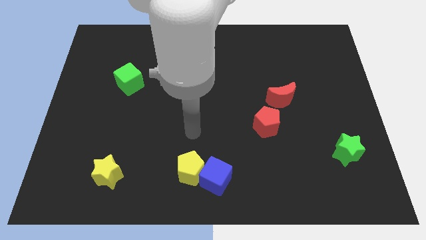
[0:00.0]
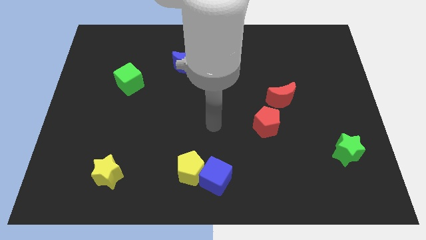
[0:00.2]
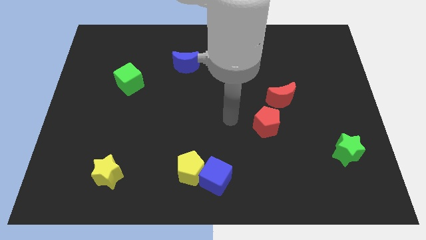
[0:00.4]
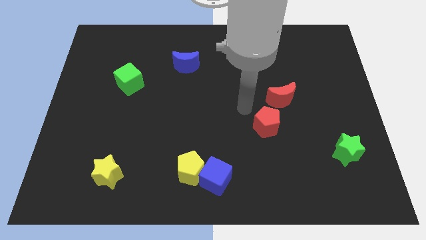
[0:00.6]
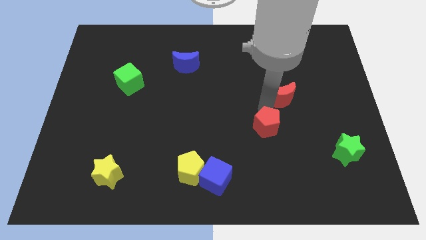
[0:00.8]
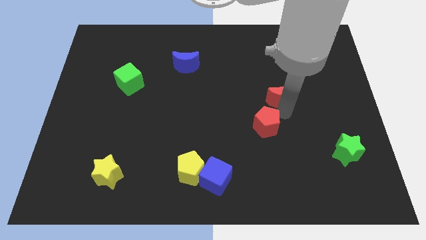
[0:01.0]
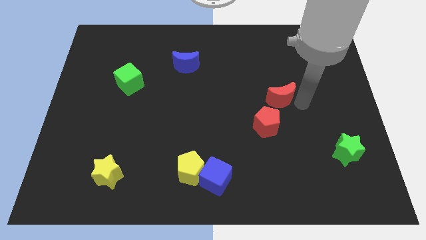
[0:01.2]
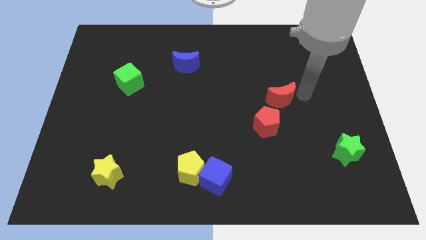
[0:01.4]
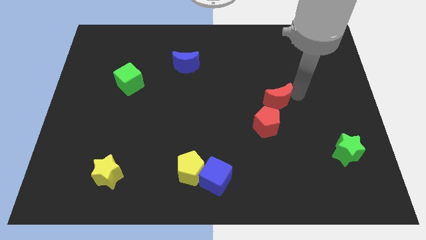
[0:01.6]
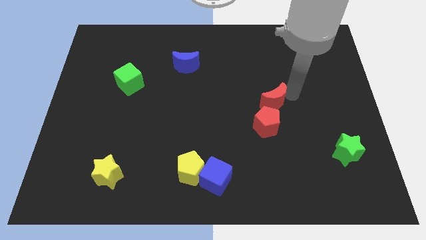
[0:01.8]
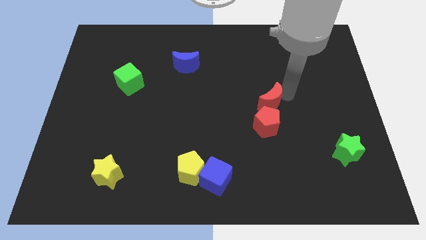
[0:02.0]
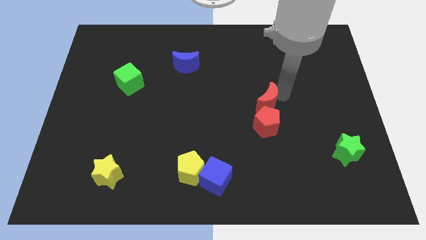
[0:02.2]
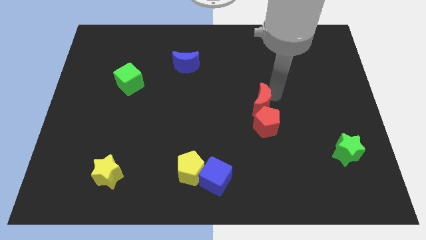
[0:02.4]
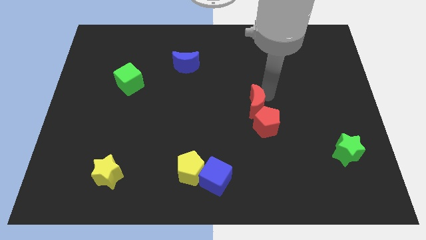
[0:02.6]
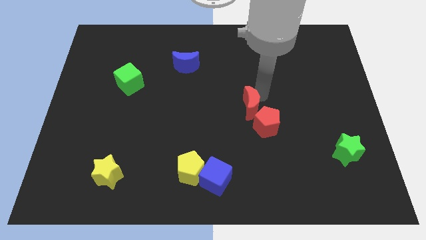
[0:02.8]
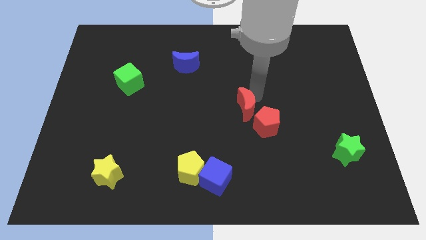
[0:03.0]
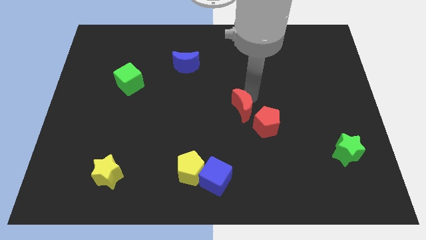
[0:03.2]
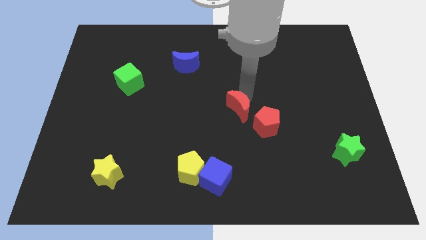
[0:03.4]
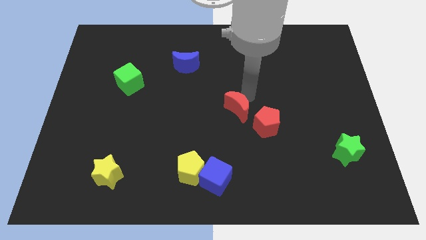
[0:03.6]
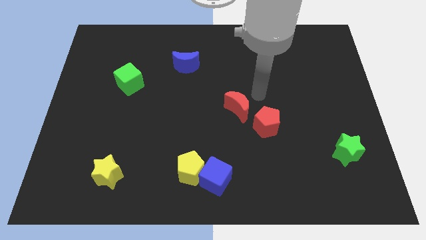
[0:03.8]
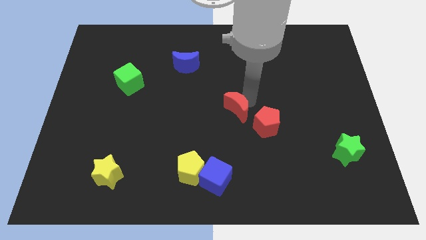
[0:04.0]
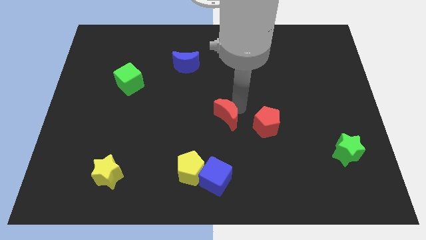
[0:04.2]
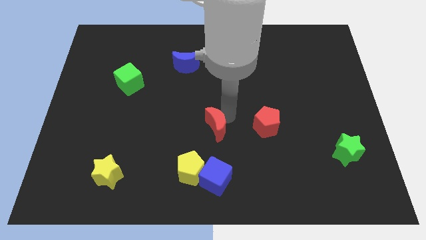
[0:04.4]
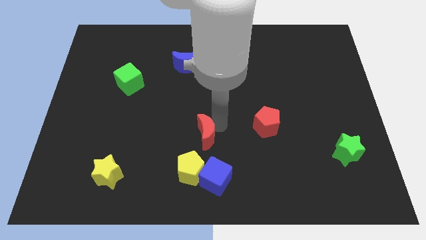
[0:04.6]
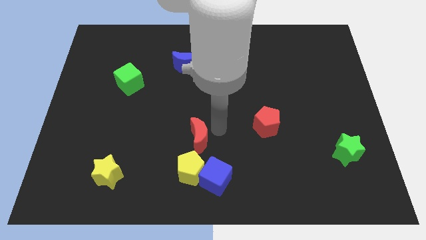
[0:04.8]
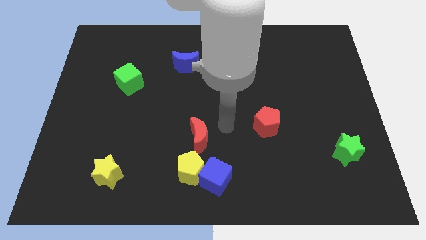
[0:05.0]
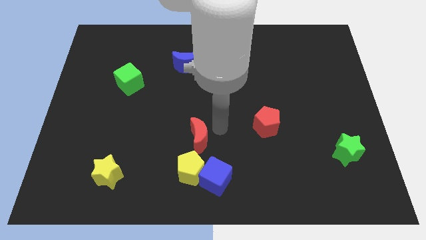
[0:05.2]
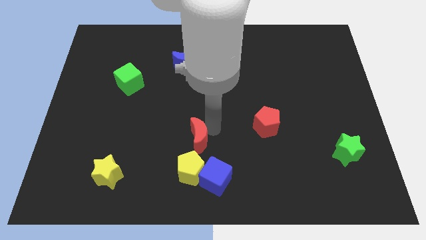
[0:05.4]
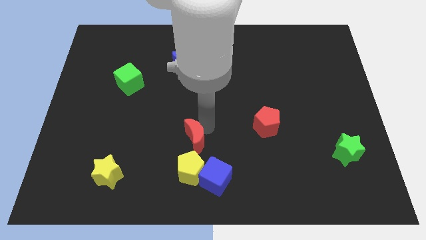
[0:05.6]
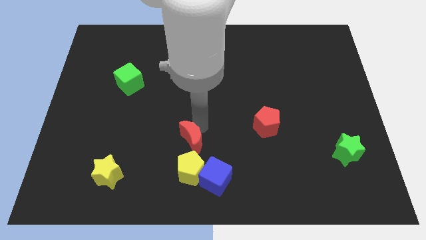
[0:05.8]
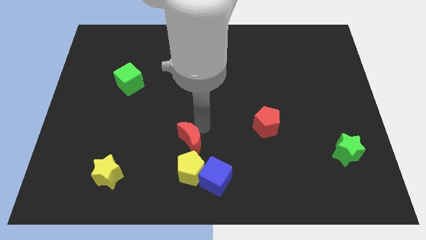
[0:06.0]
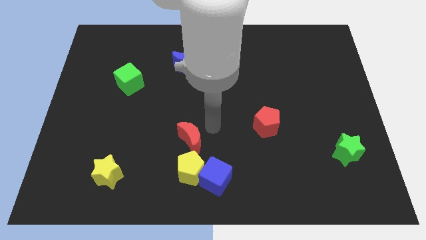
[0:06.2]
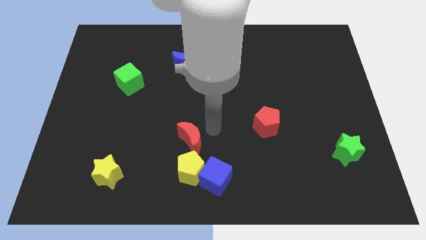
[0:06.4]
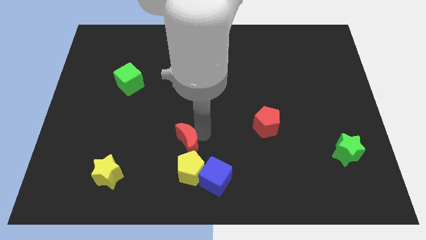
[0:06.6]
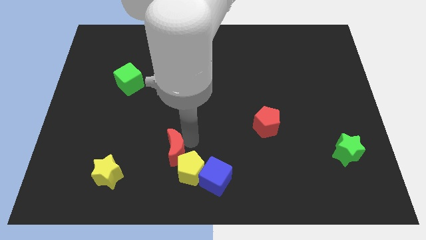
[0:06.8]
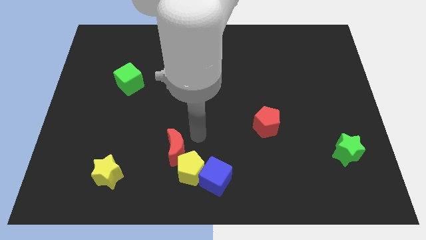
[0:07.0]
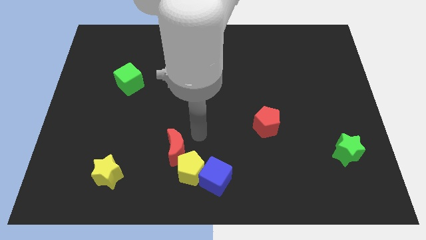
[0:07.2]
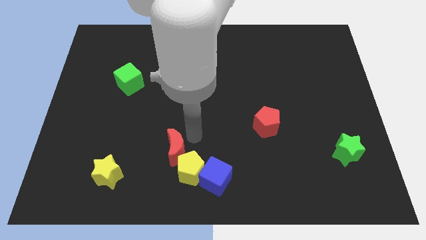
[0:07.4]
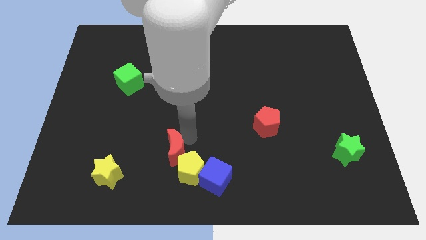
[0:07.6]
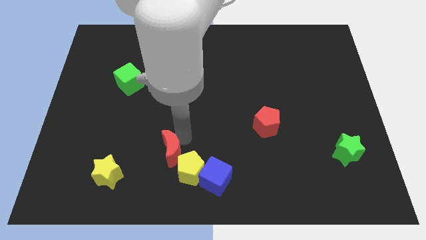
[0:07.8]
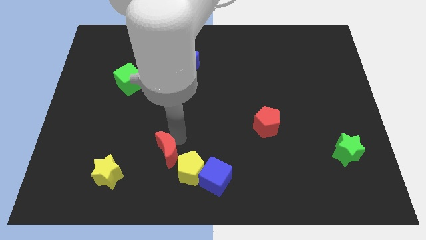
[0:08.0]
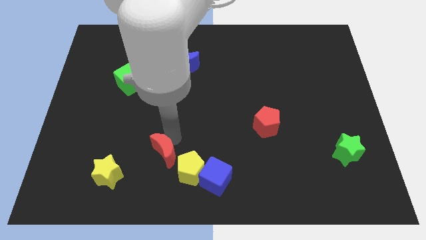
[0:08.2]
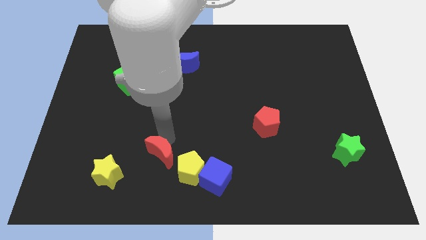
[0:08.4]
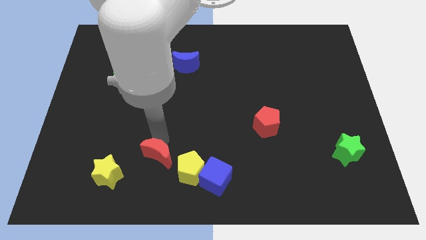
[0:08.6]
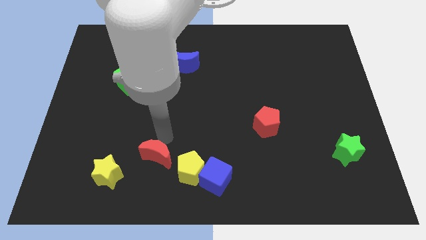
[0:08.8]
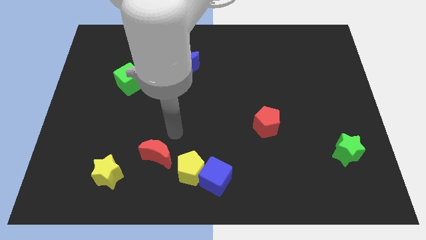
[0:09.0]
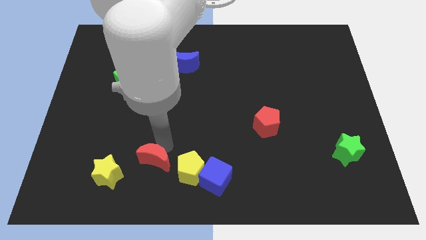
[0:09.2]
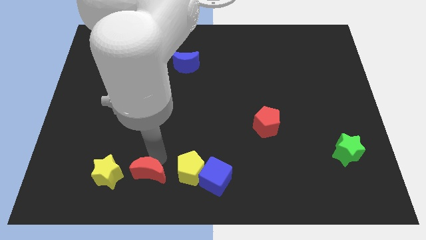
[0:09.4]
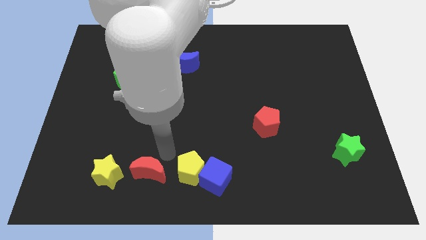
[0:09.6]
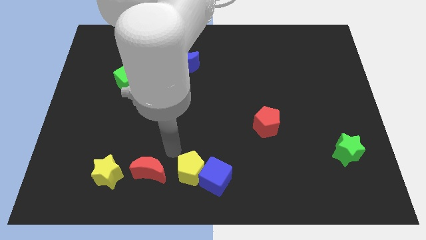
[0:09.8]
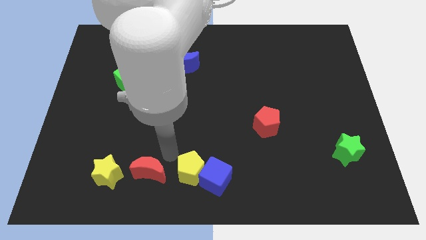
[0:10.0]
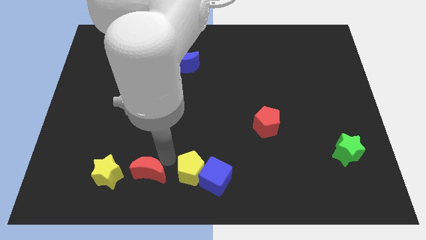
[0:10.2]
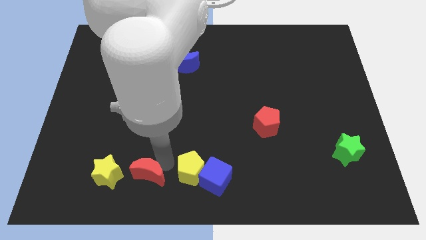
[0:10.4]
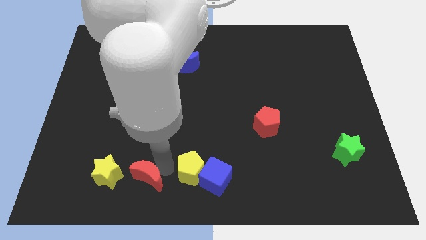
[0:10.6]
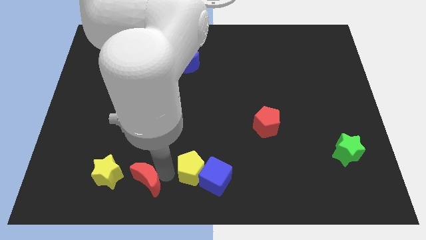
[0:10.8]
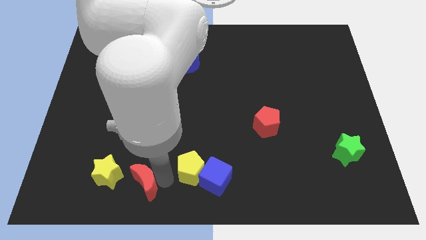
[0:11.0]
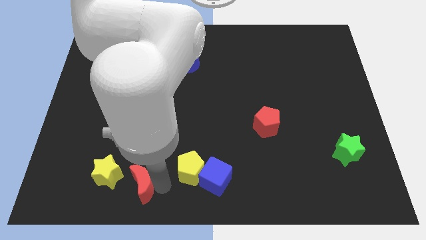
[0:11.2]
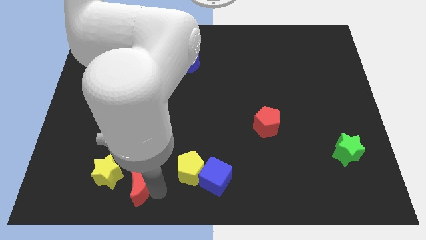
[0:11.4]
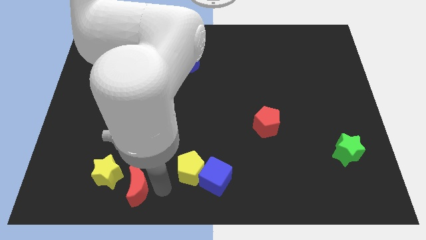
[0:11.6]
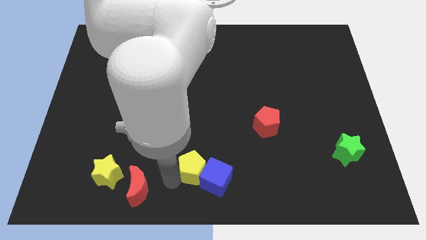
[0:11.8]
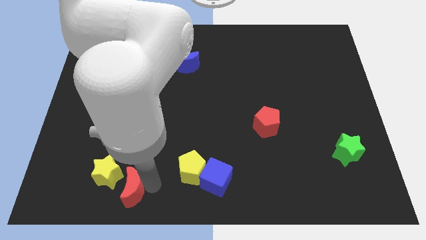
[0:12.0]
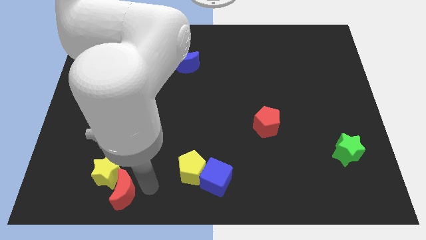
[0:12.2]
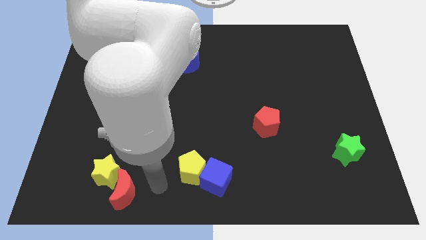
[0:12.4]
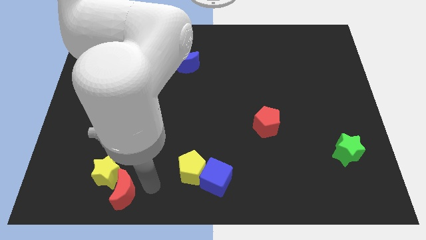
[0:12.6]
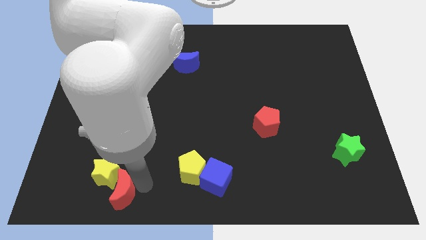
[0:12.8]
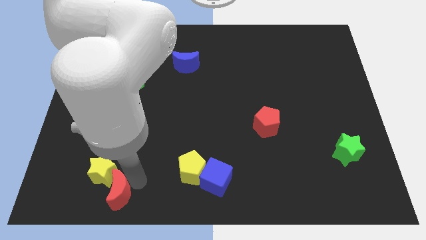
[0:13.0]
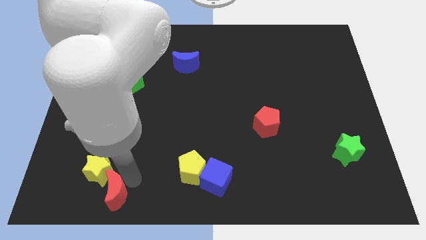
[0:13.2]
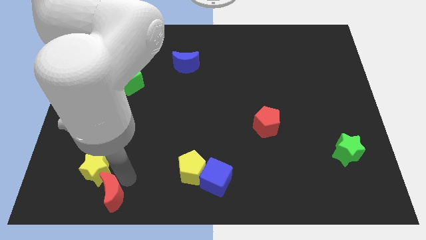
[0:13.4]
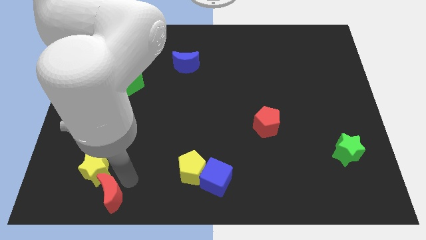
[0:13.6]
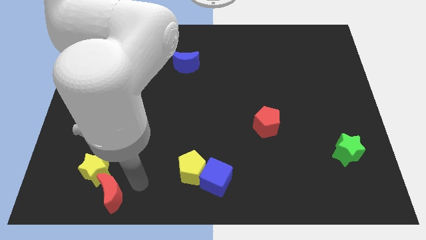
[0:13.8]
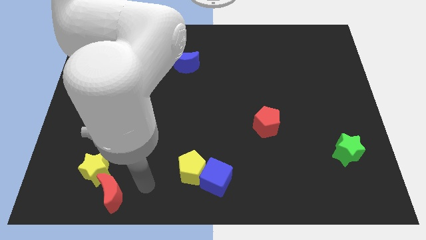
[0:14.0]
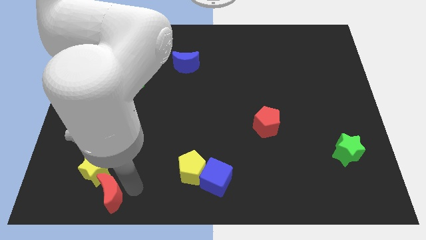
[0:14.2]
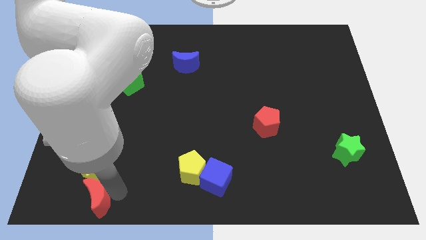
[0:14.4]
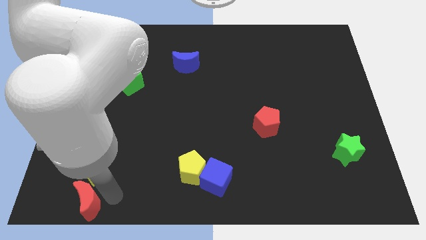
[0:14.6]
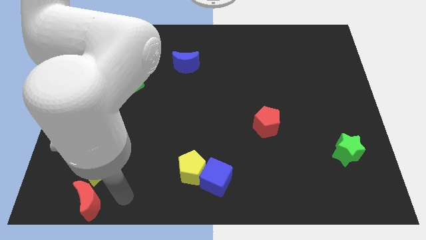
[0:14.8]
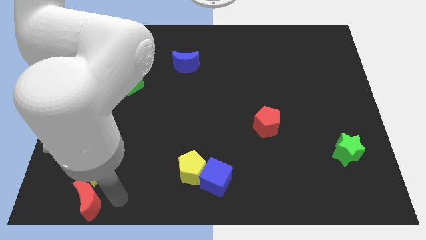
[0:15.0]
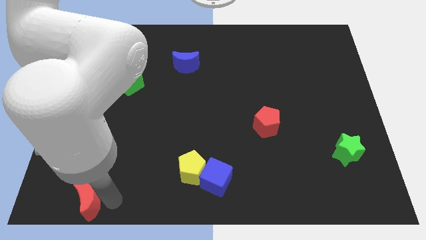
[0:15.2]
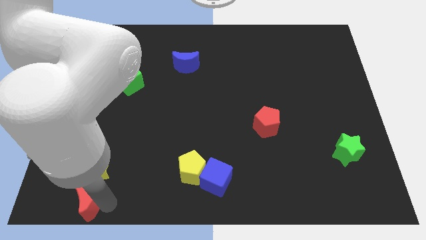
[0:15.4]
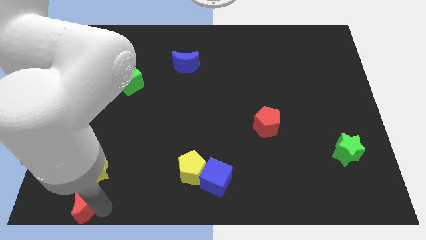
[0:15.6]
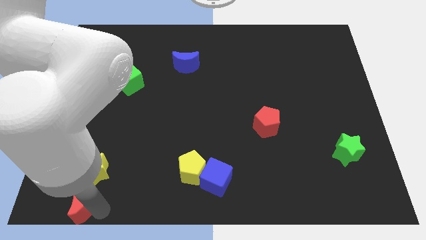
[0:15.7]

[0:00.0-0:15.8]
put the red moon to the bottom left corner
